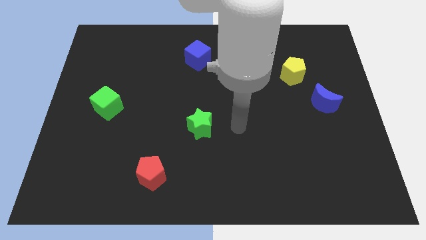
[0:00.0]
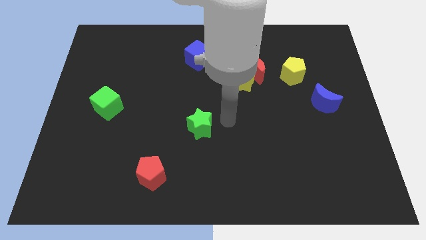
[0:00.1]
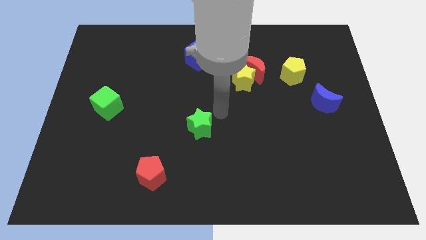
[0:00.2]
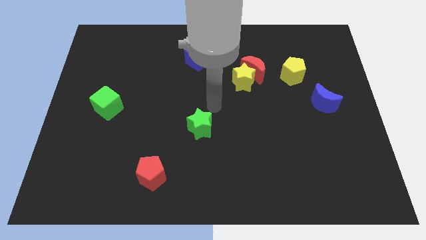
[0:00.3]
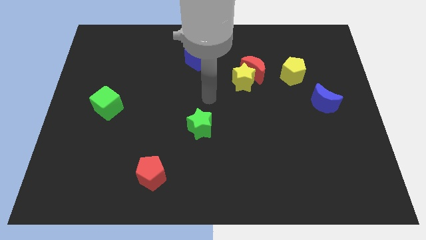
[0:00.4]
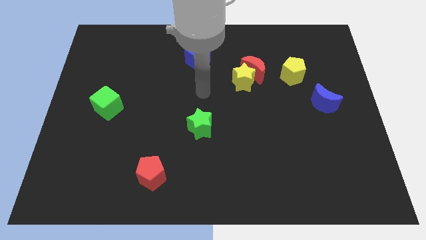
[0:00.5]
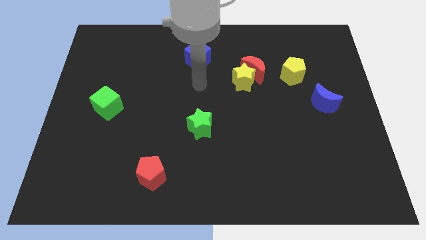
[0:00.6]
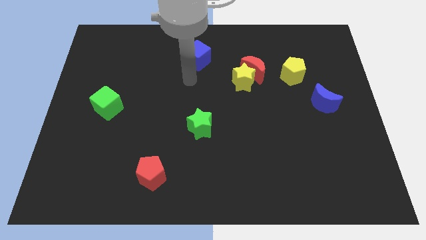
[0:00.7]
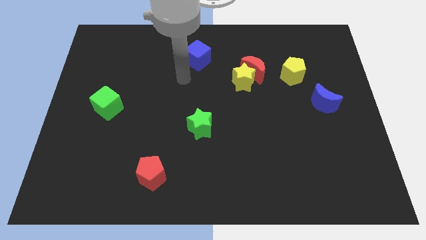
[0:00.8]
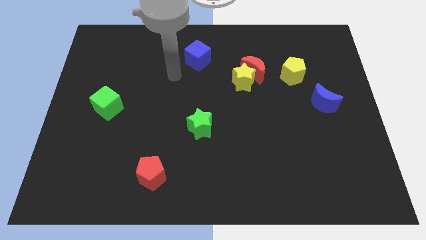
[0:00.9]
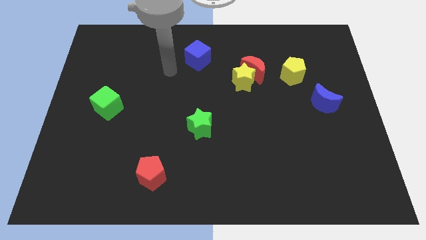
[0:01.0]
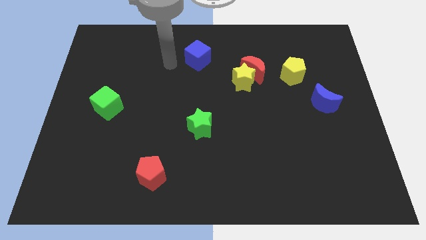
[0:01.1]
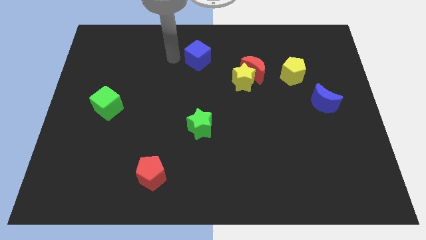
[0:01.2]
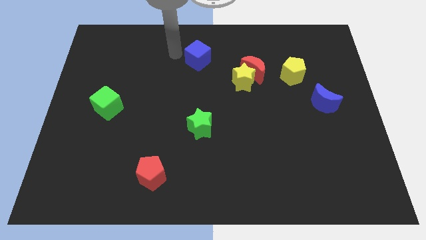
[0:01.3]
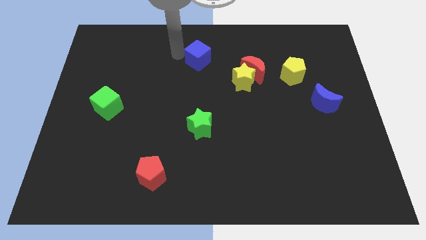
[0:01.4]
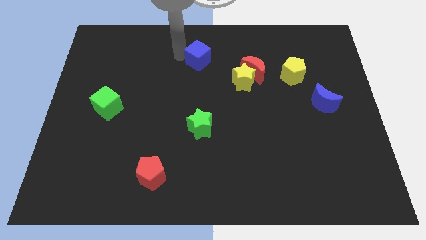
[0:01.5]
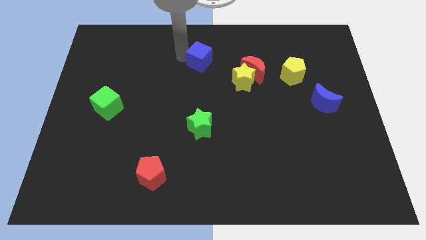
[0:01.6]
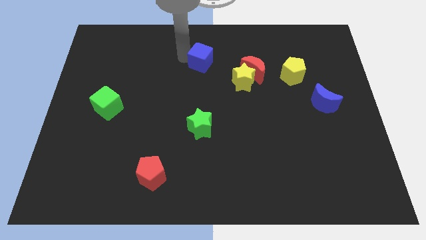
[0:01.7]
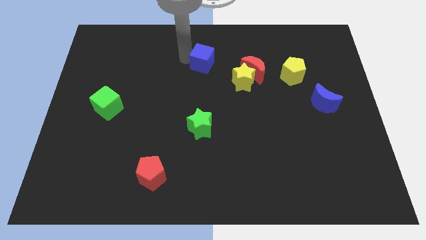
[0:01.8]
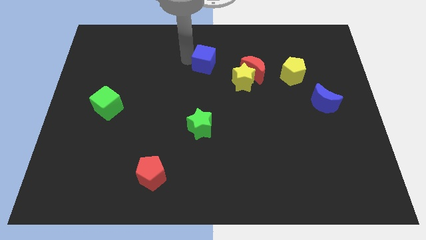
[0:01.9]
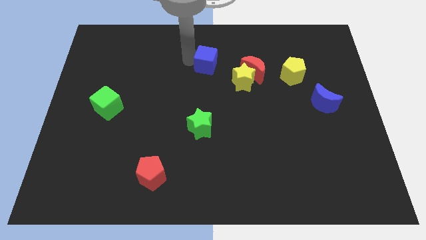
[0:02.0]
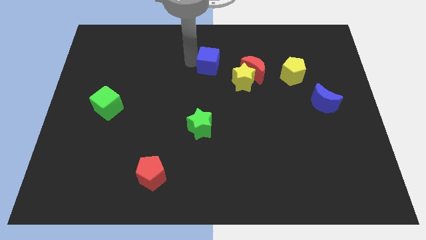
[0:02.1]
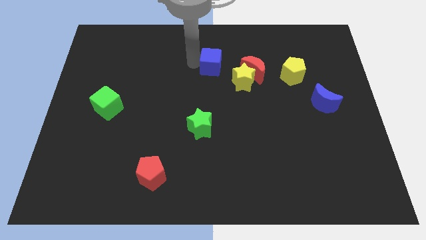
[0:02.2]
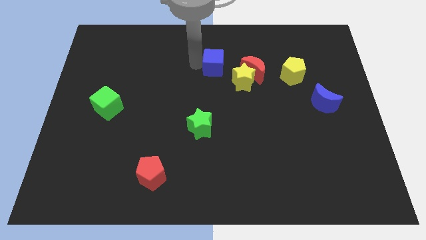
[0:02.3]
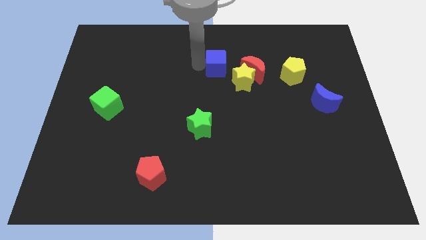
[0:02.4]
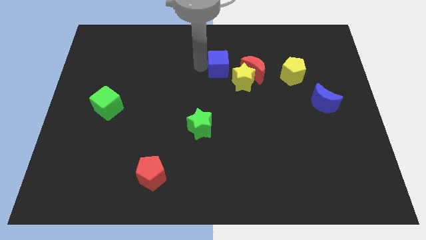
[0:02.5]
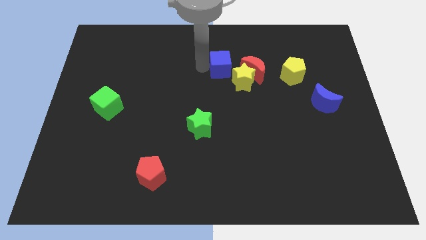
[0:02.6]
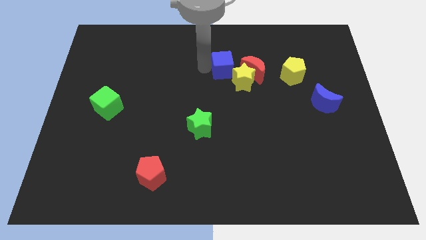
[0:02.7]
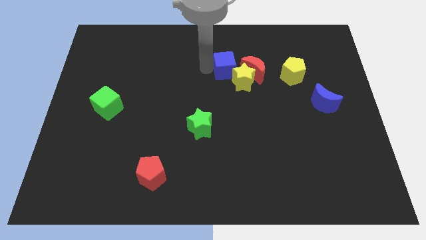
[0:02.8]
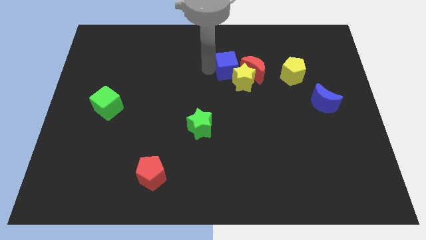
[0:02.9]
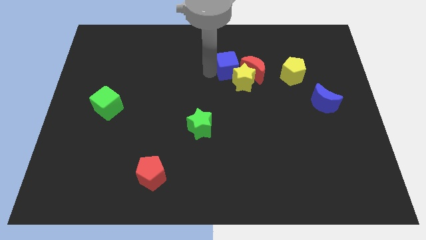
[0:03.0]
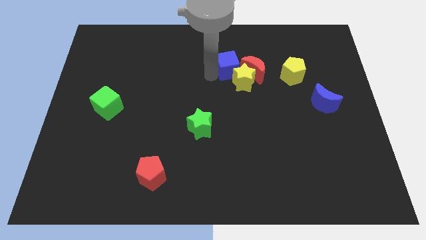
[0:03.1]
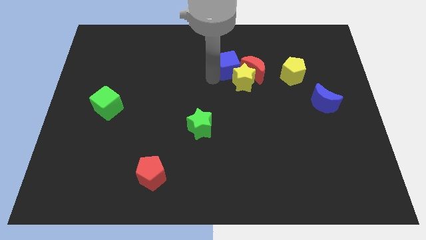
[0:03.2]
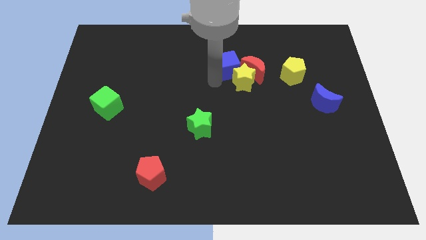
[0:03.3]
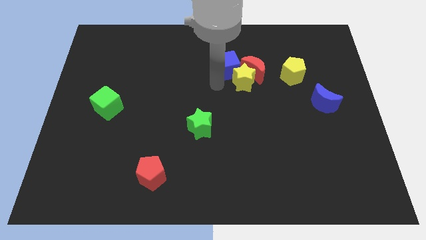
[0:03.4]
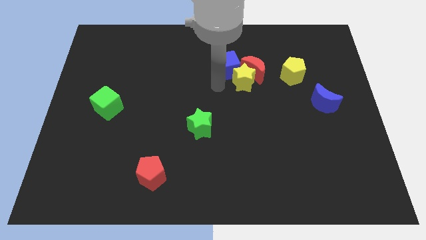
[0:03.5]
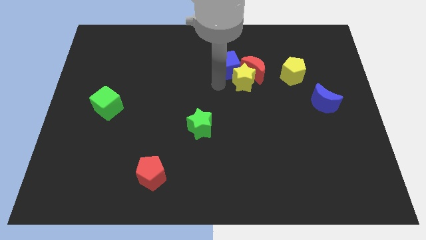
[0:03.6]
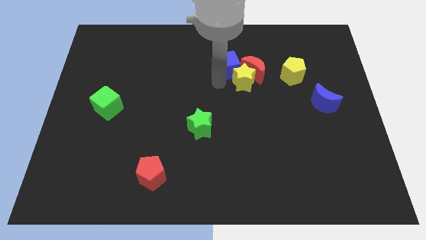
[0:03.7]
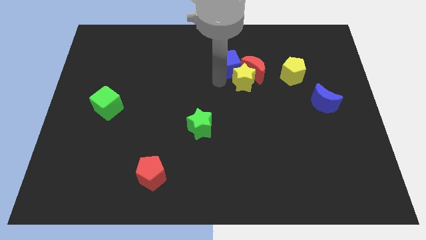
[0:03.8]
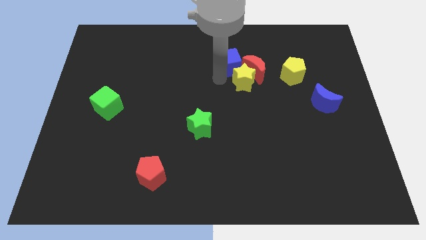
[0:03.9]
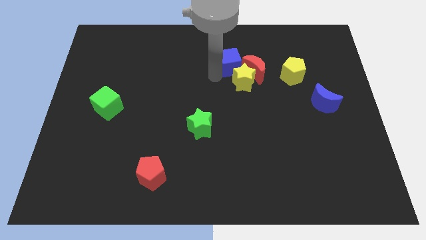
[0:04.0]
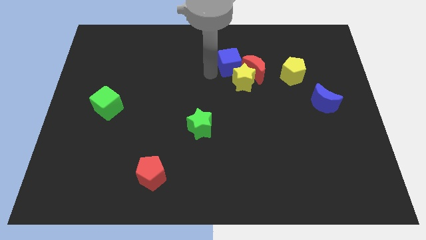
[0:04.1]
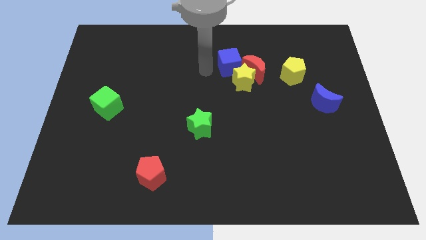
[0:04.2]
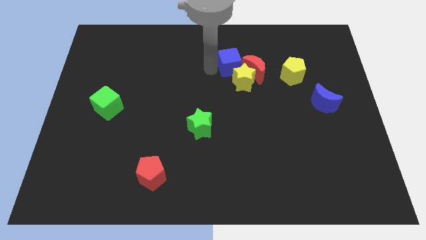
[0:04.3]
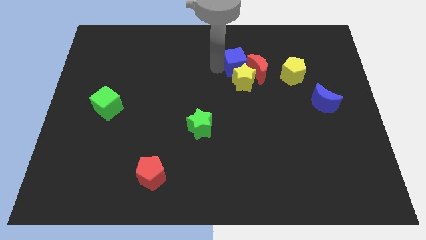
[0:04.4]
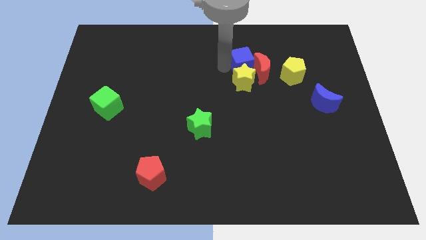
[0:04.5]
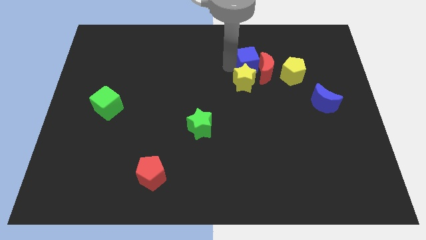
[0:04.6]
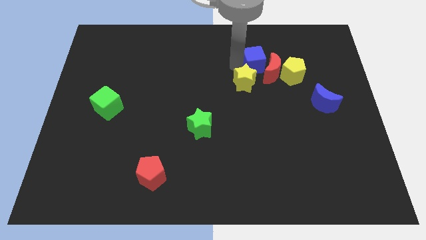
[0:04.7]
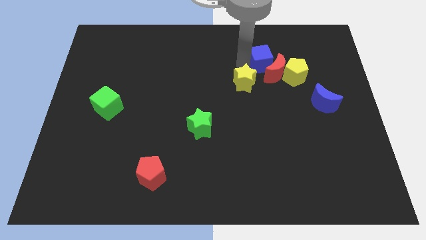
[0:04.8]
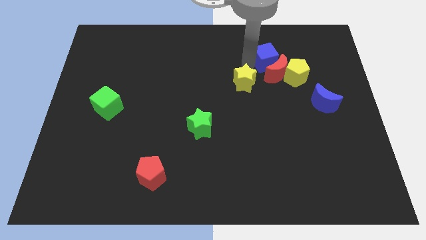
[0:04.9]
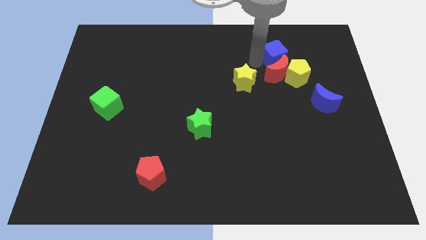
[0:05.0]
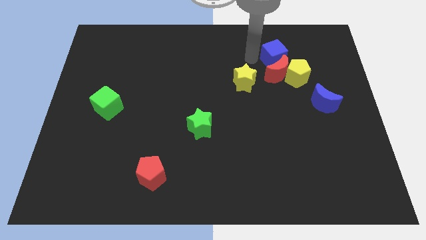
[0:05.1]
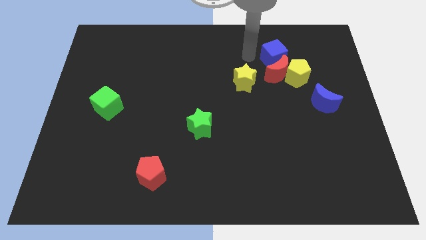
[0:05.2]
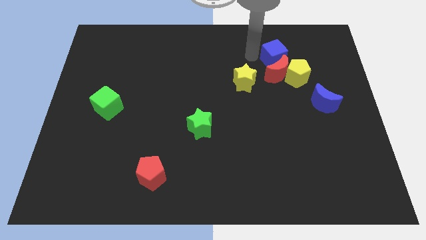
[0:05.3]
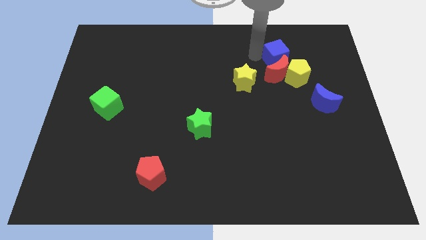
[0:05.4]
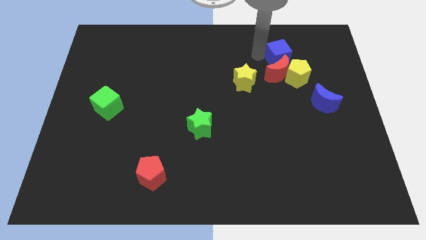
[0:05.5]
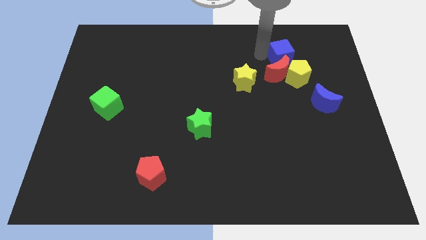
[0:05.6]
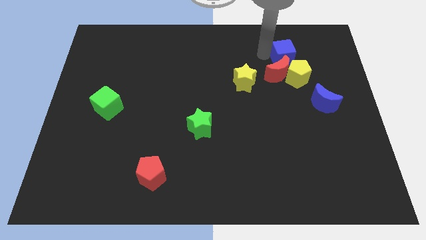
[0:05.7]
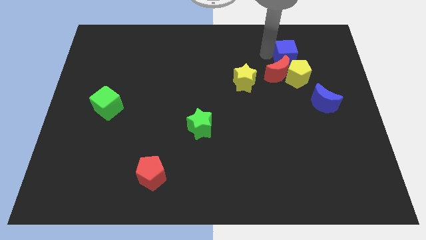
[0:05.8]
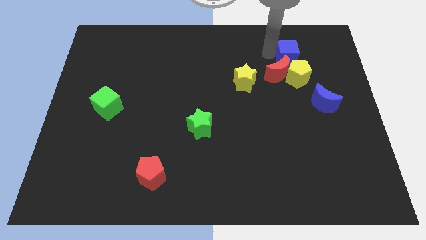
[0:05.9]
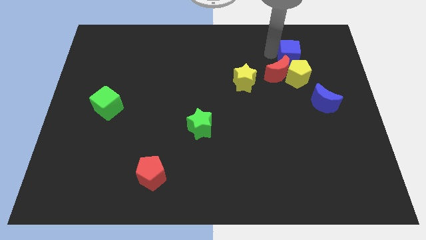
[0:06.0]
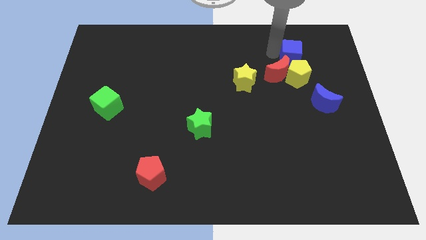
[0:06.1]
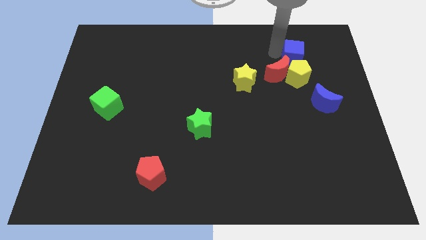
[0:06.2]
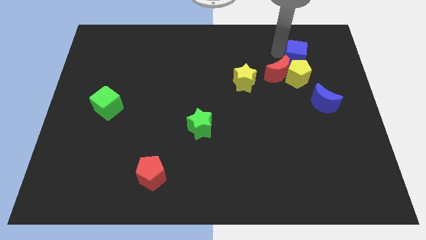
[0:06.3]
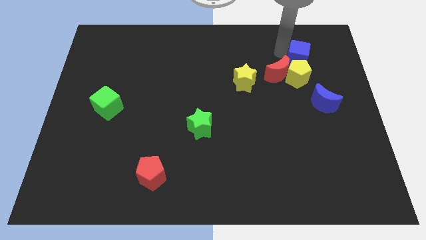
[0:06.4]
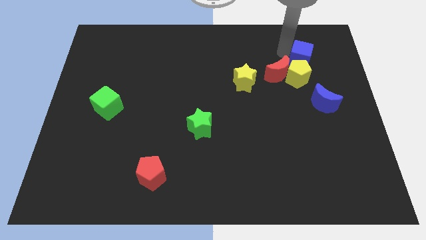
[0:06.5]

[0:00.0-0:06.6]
slide the blue cube to the top of the blue moon

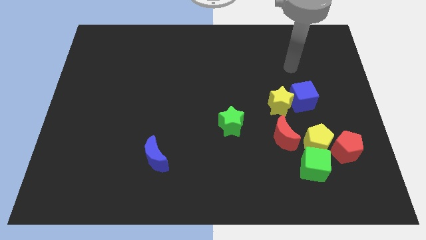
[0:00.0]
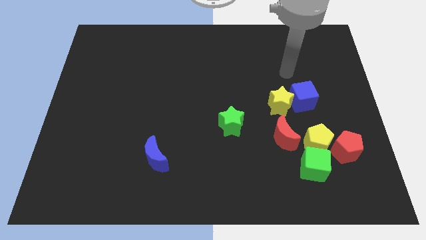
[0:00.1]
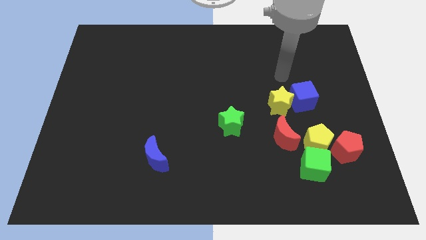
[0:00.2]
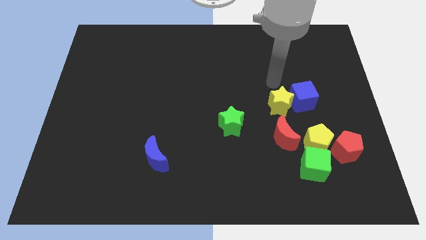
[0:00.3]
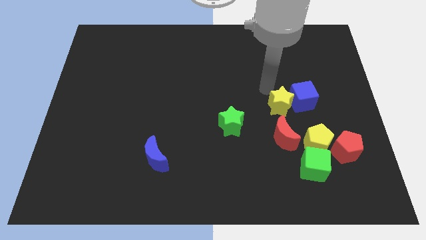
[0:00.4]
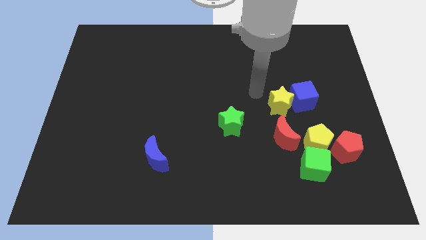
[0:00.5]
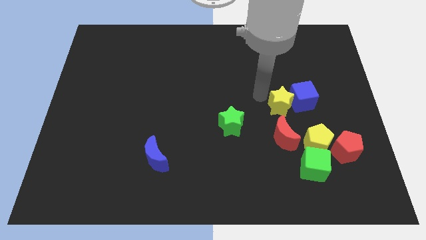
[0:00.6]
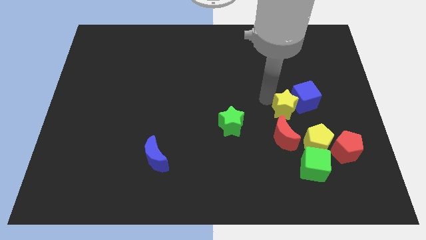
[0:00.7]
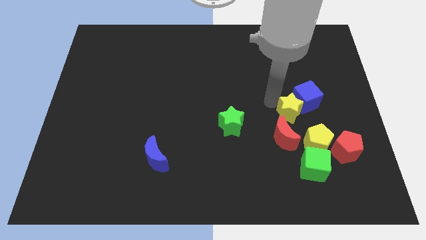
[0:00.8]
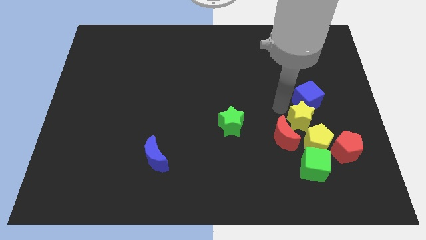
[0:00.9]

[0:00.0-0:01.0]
slide the yellow star just right of the red moon

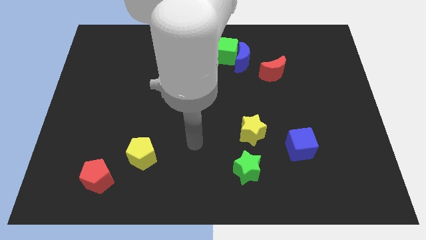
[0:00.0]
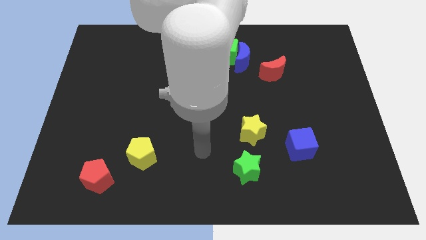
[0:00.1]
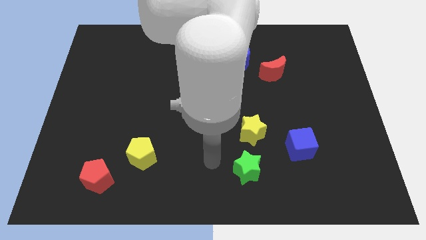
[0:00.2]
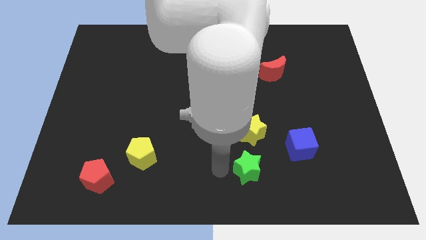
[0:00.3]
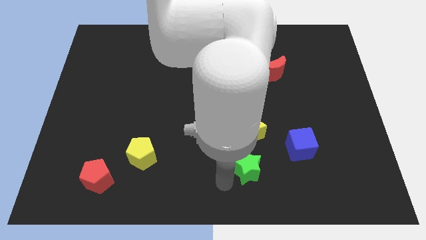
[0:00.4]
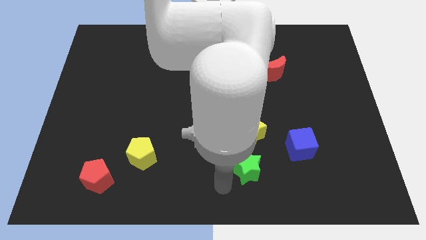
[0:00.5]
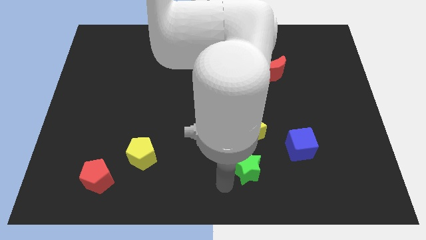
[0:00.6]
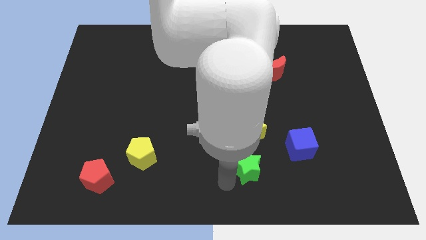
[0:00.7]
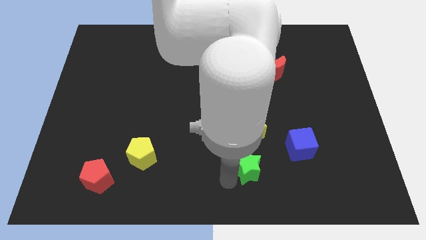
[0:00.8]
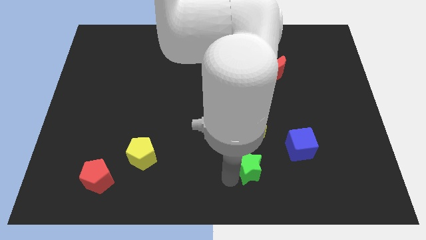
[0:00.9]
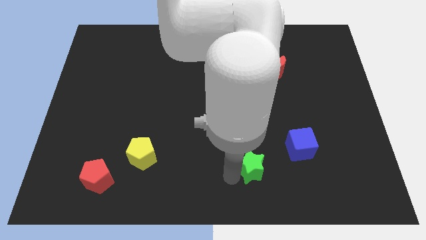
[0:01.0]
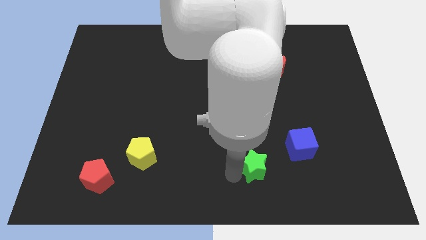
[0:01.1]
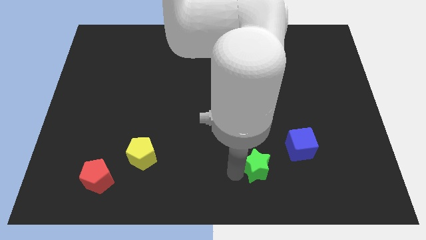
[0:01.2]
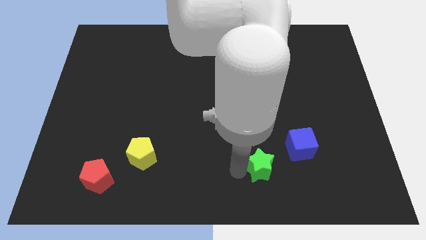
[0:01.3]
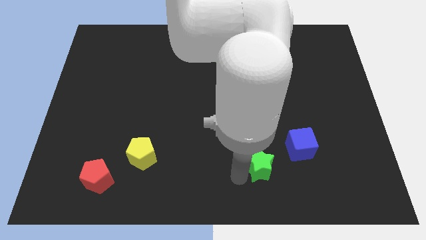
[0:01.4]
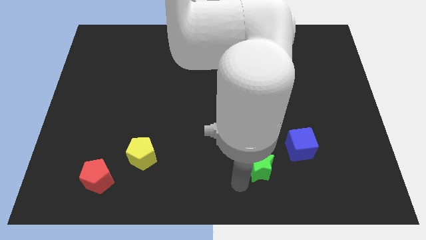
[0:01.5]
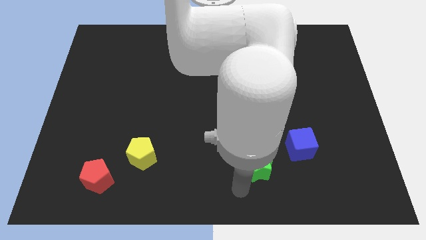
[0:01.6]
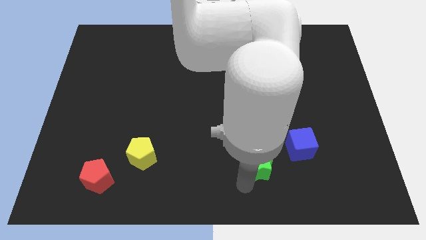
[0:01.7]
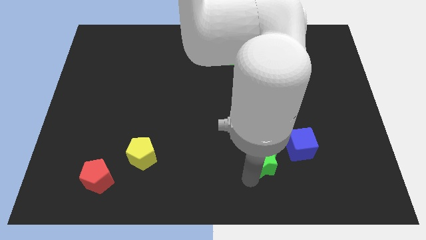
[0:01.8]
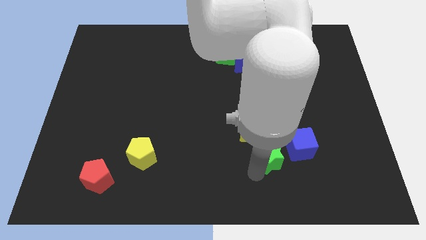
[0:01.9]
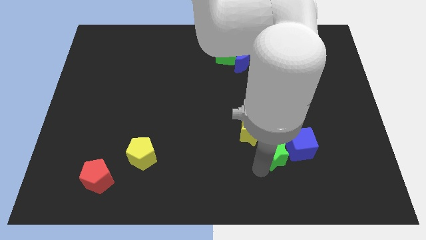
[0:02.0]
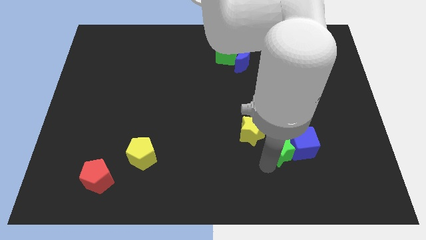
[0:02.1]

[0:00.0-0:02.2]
move the green star diagonally up and to the left of the blue cube
